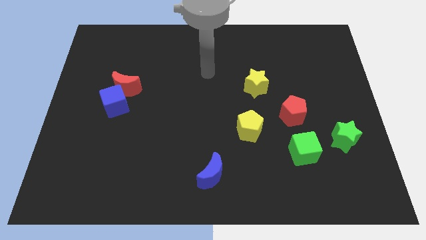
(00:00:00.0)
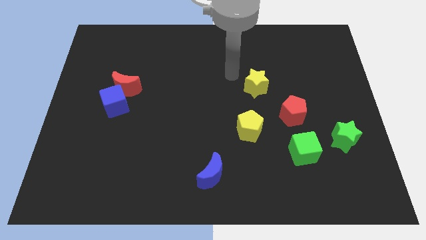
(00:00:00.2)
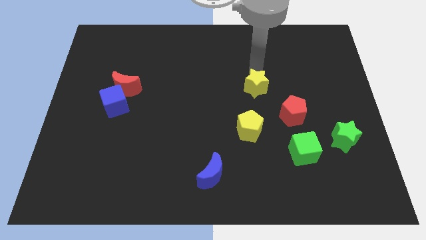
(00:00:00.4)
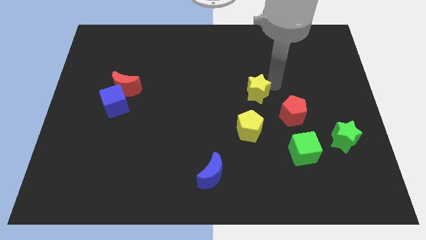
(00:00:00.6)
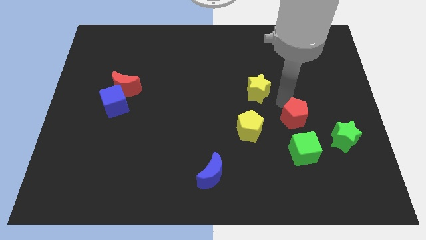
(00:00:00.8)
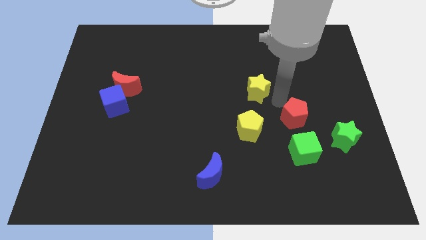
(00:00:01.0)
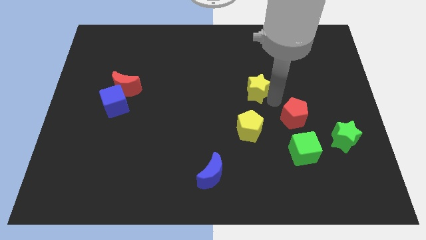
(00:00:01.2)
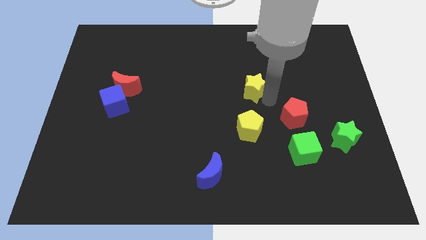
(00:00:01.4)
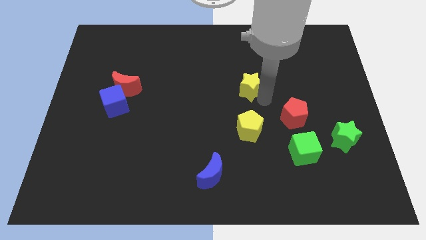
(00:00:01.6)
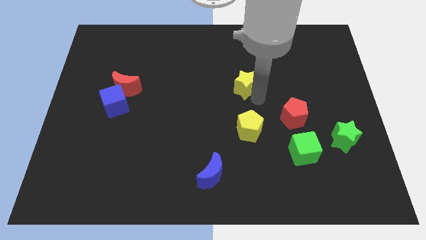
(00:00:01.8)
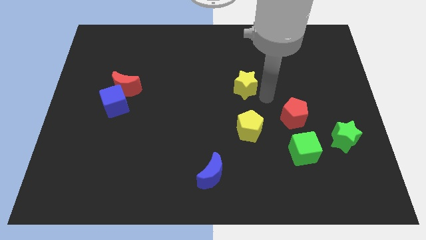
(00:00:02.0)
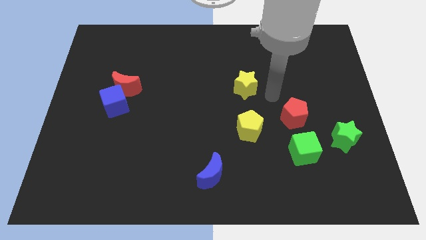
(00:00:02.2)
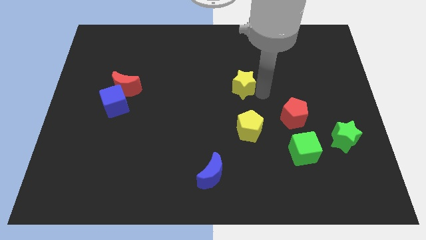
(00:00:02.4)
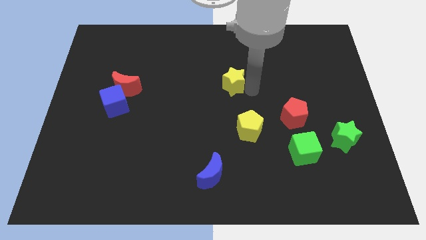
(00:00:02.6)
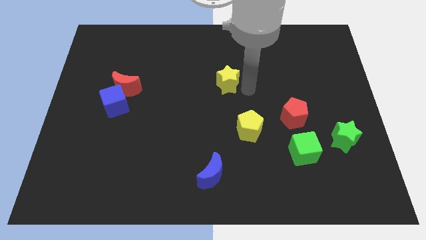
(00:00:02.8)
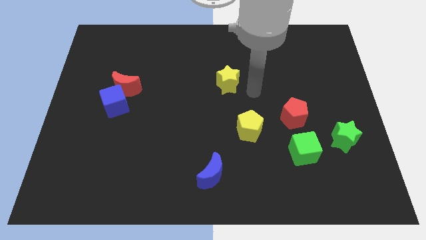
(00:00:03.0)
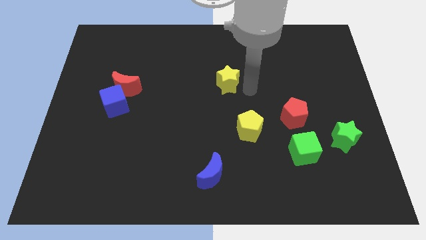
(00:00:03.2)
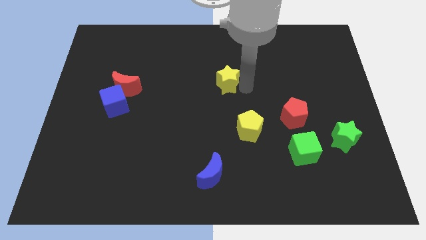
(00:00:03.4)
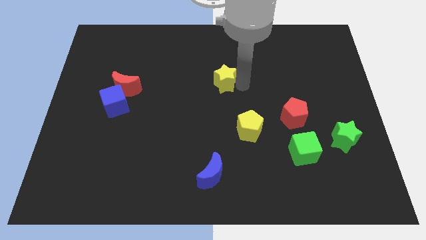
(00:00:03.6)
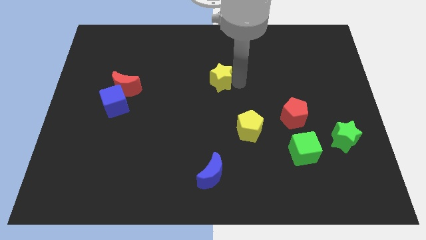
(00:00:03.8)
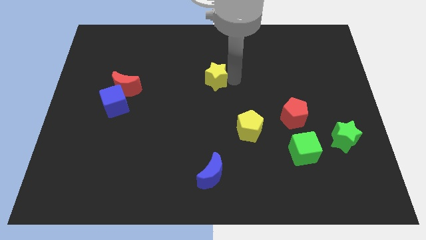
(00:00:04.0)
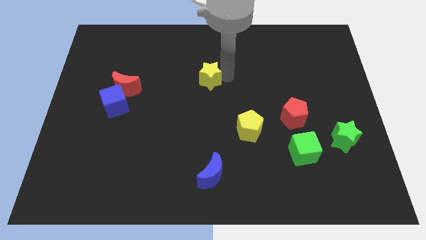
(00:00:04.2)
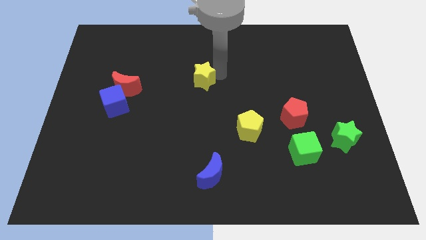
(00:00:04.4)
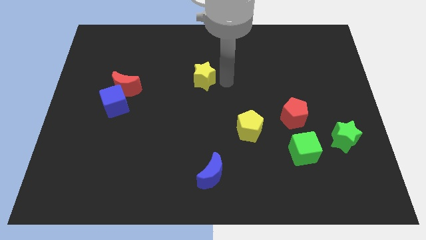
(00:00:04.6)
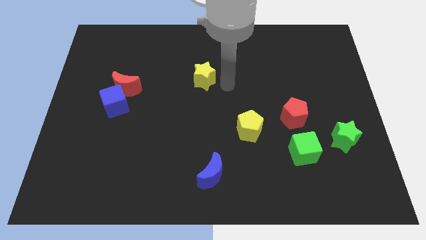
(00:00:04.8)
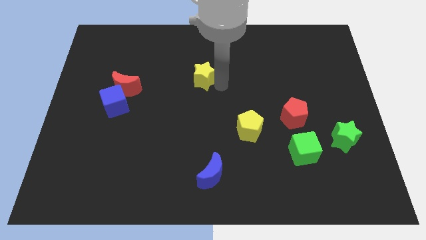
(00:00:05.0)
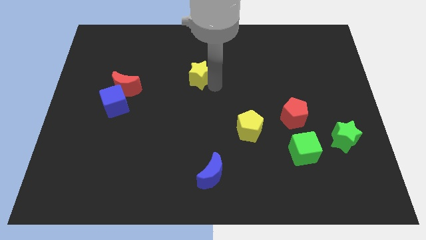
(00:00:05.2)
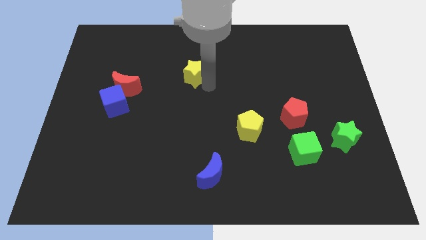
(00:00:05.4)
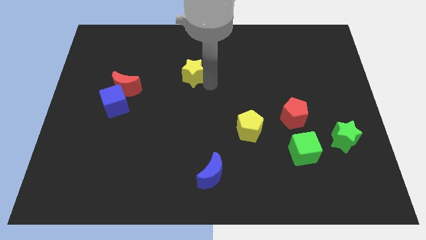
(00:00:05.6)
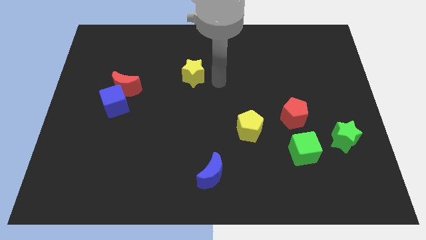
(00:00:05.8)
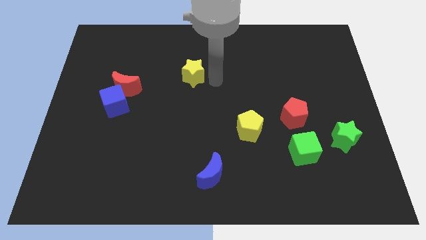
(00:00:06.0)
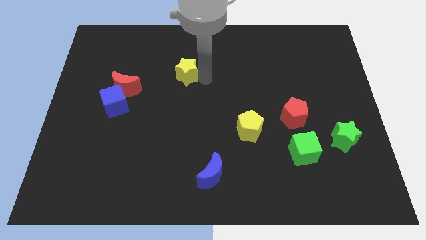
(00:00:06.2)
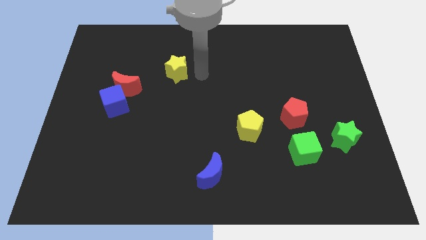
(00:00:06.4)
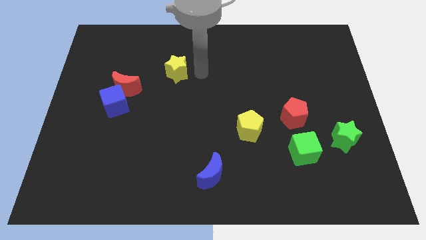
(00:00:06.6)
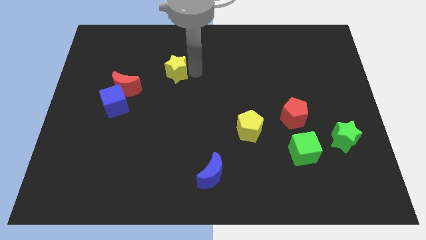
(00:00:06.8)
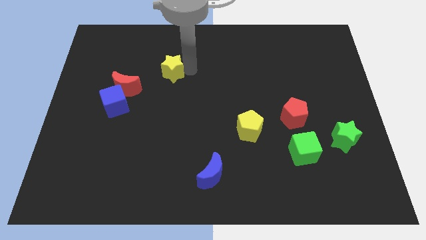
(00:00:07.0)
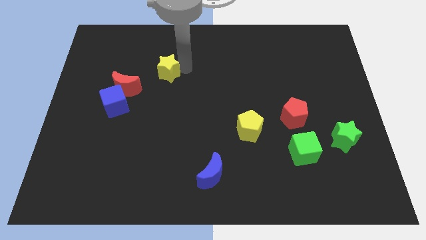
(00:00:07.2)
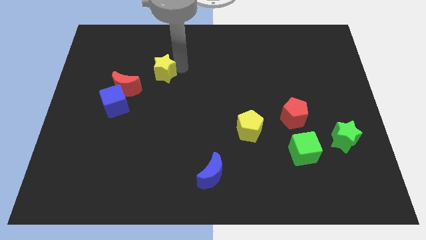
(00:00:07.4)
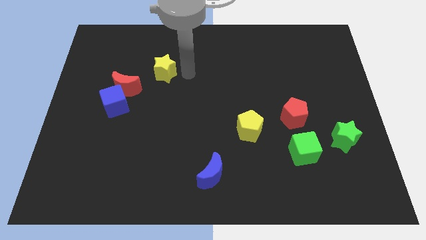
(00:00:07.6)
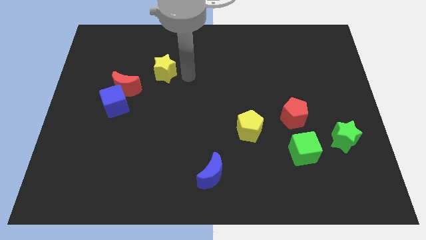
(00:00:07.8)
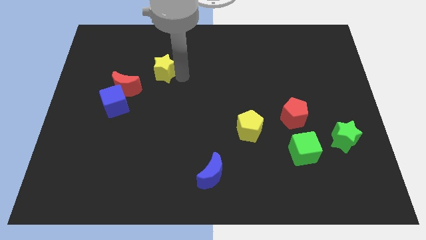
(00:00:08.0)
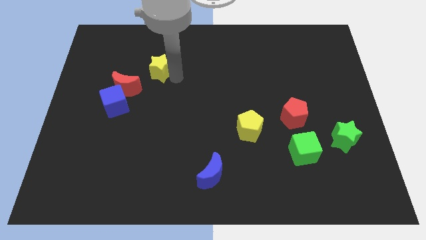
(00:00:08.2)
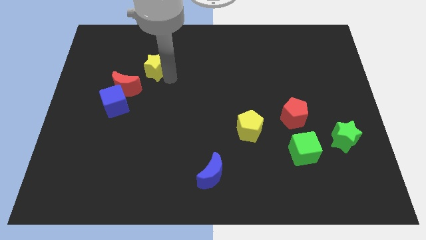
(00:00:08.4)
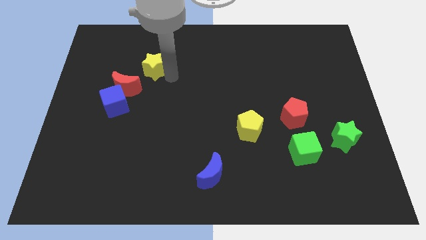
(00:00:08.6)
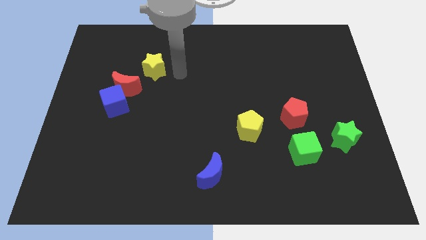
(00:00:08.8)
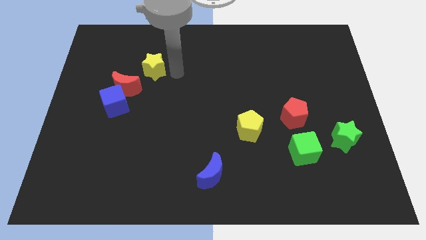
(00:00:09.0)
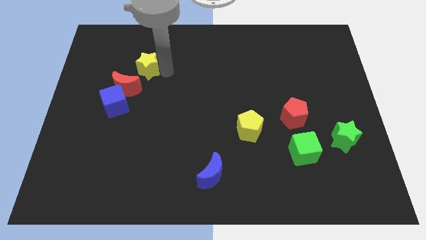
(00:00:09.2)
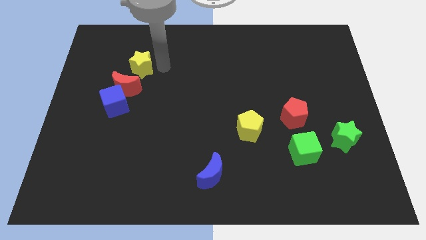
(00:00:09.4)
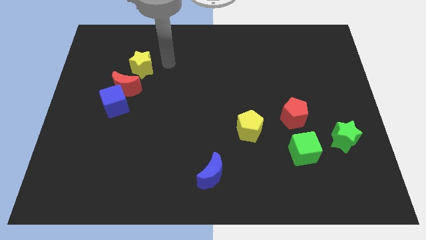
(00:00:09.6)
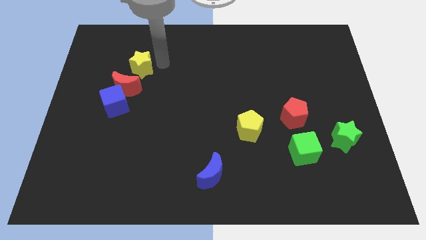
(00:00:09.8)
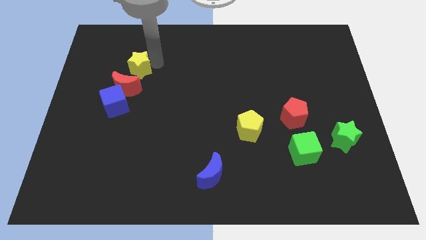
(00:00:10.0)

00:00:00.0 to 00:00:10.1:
put the yellow star above the blue cube
